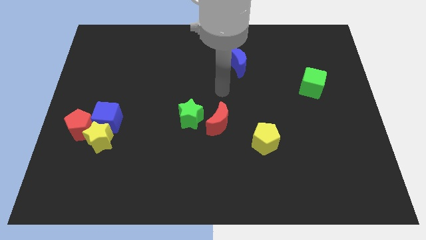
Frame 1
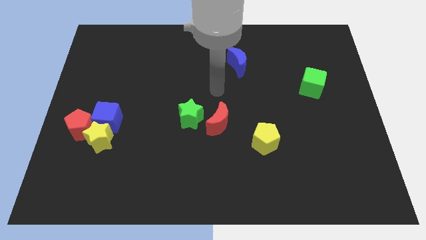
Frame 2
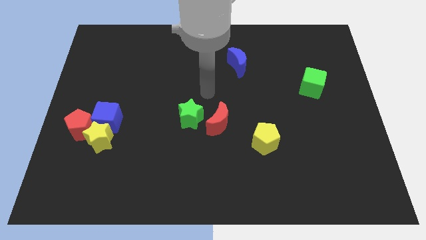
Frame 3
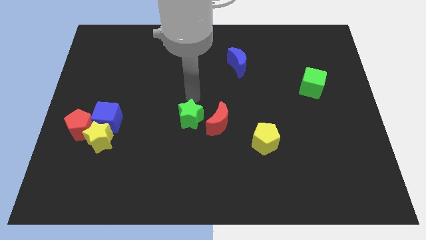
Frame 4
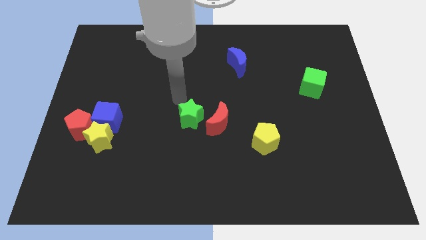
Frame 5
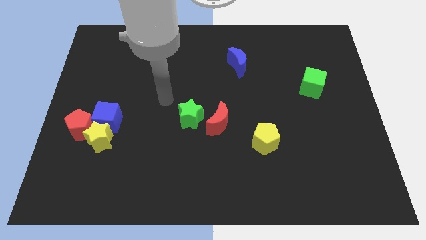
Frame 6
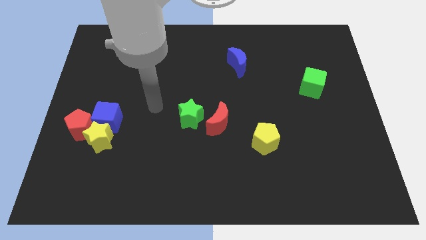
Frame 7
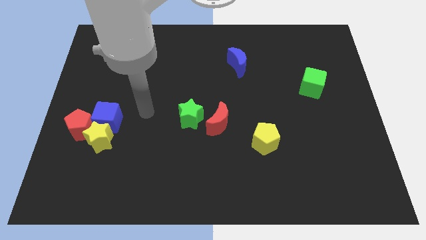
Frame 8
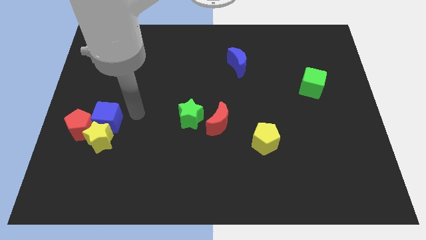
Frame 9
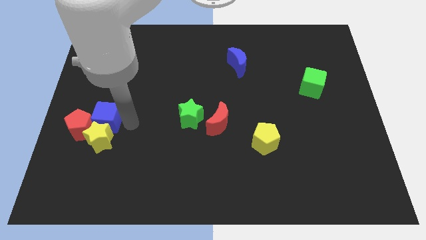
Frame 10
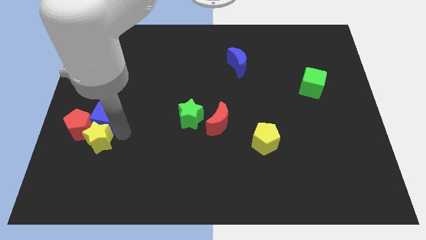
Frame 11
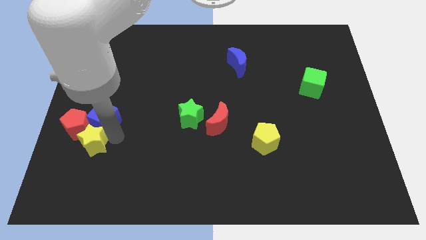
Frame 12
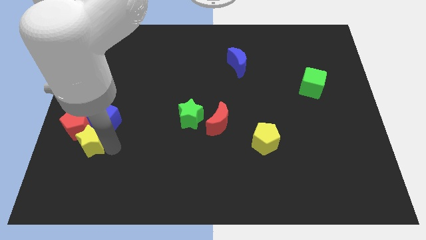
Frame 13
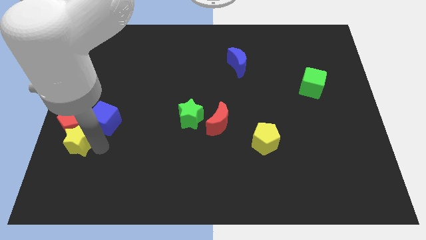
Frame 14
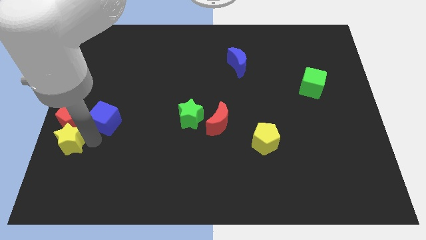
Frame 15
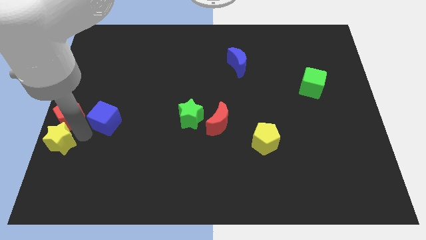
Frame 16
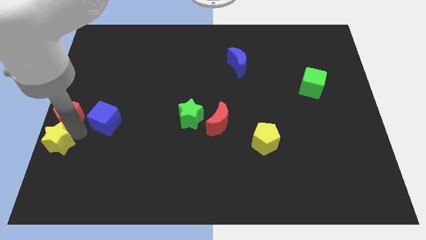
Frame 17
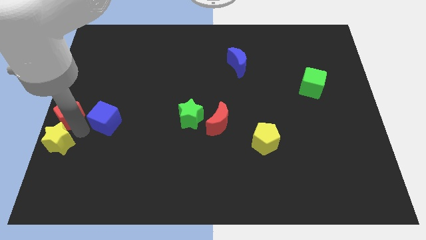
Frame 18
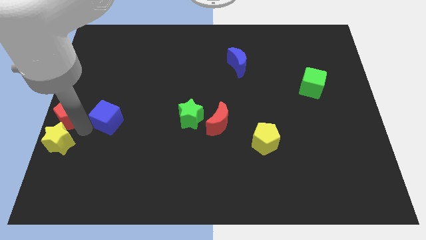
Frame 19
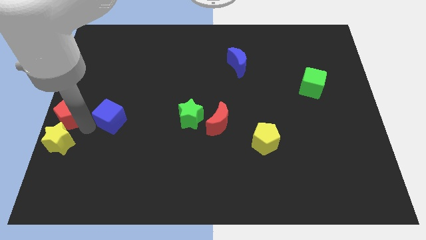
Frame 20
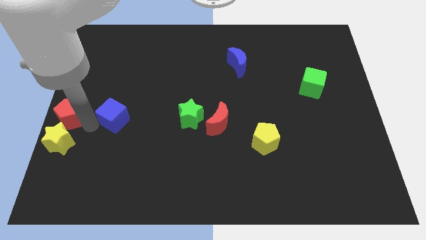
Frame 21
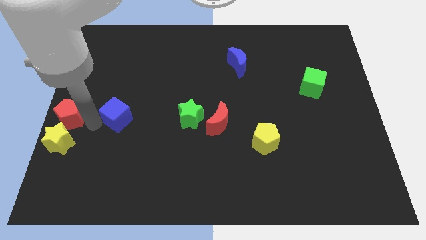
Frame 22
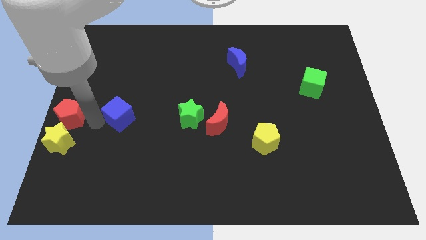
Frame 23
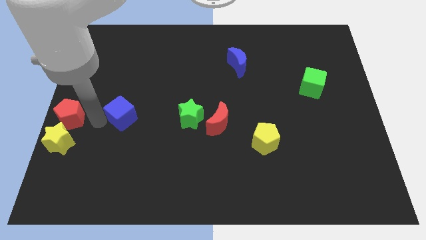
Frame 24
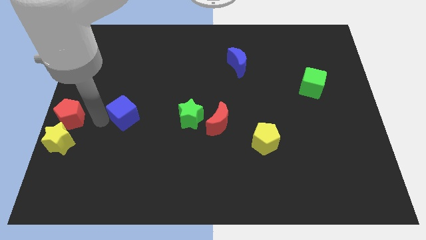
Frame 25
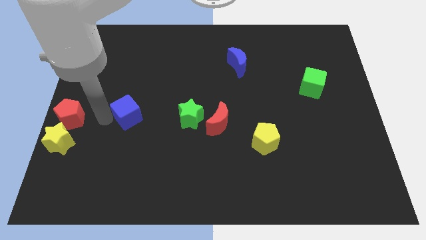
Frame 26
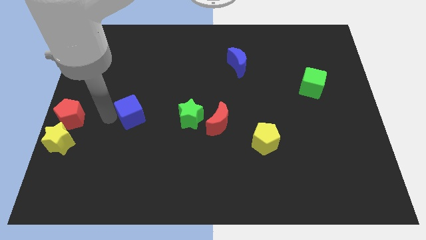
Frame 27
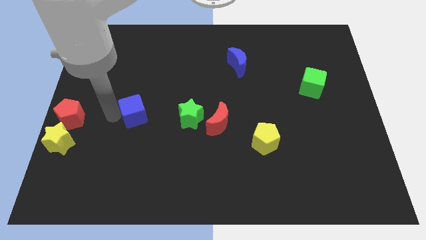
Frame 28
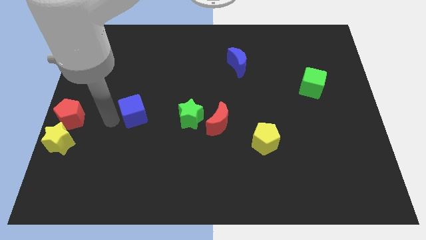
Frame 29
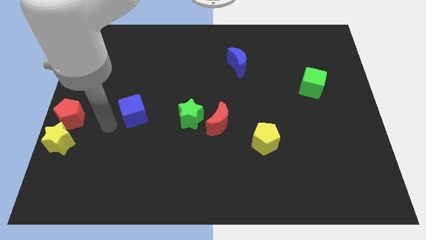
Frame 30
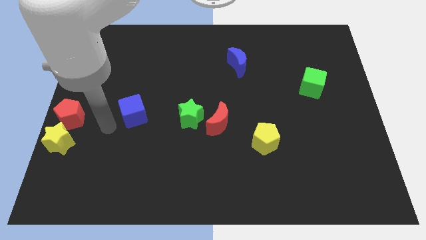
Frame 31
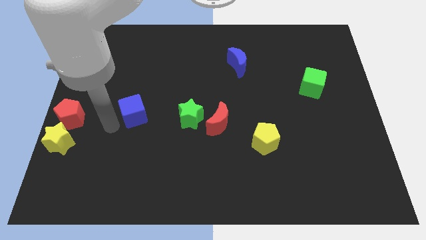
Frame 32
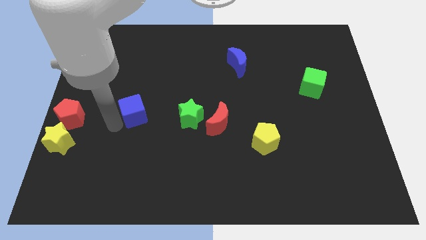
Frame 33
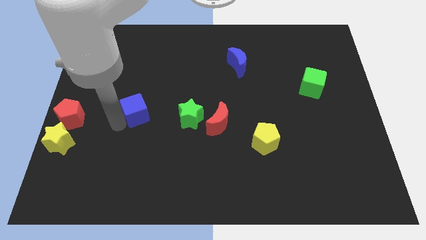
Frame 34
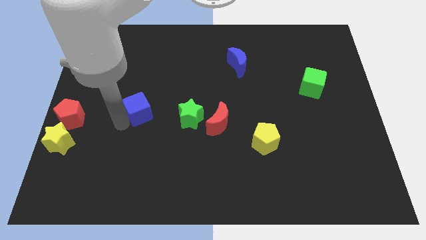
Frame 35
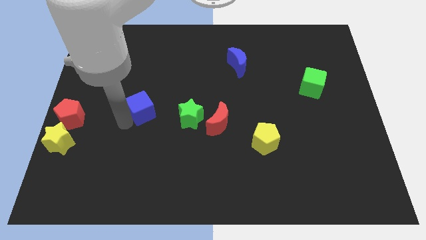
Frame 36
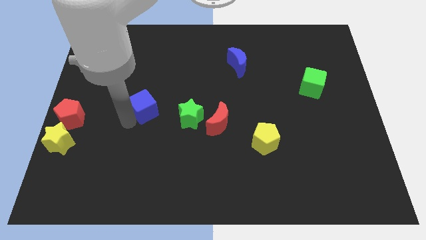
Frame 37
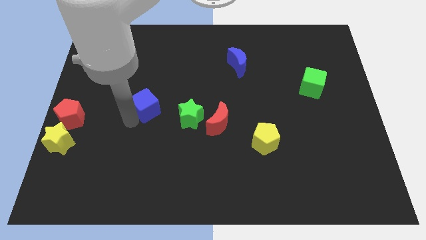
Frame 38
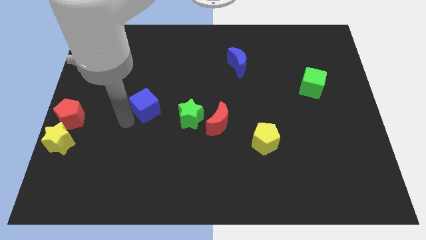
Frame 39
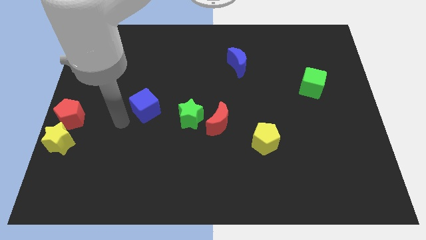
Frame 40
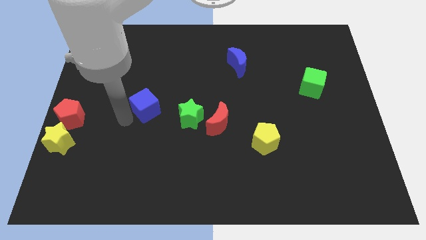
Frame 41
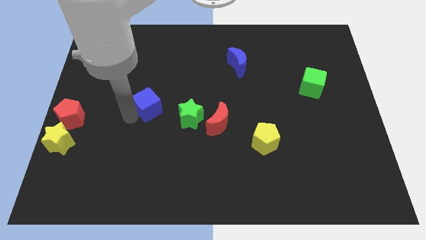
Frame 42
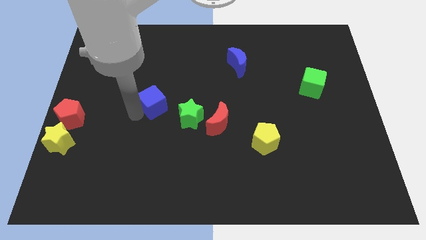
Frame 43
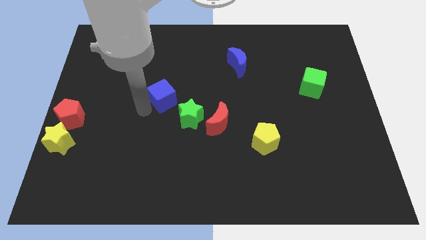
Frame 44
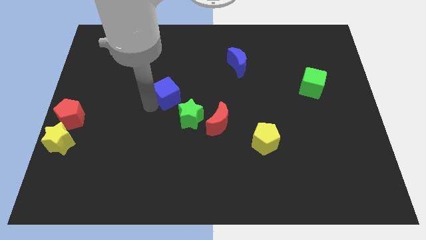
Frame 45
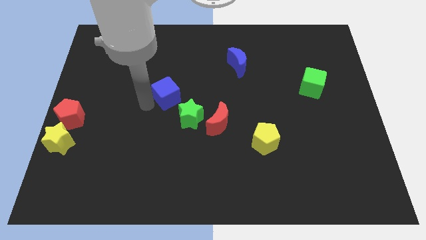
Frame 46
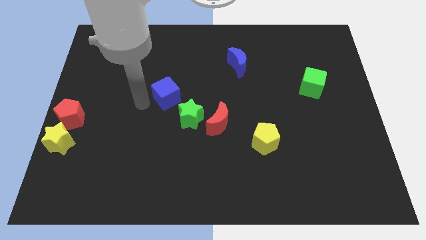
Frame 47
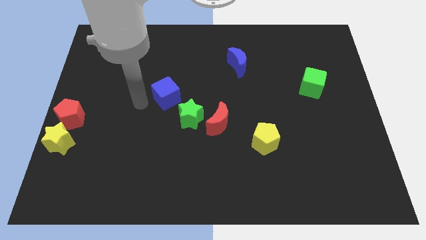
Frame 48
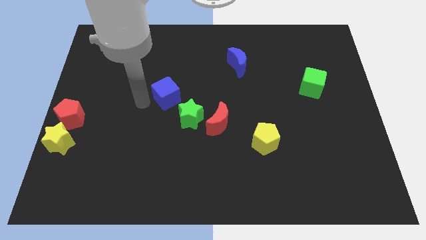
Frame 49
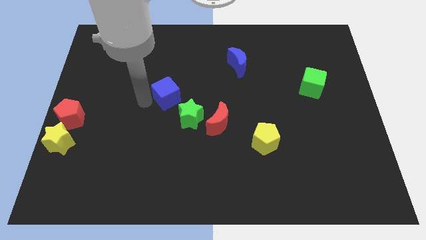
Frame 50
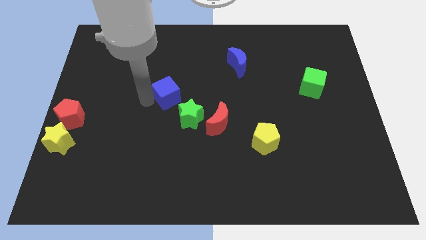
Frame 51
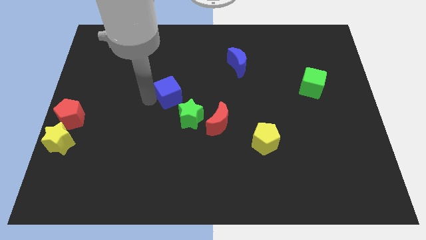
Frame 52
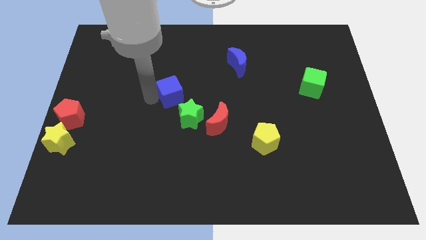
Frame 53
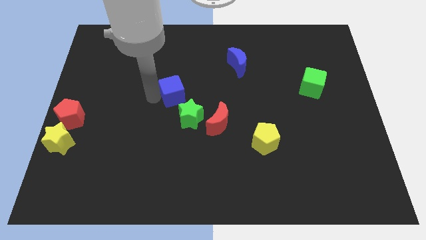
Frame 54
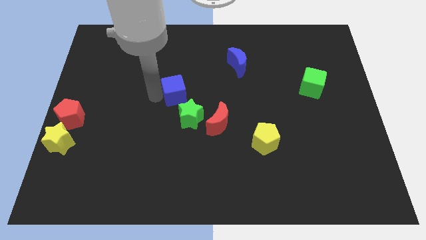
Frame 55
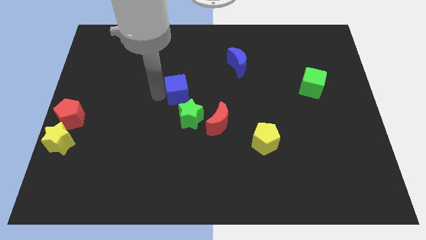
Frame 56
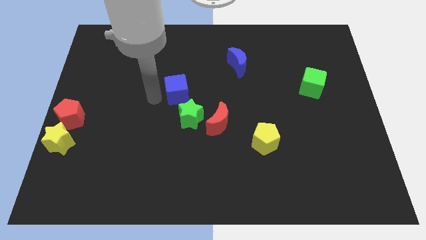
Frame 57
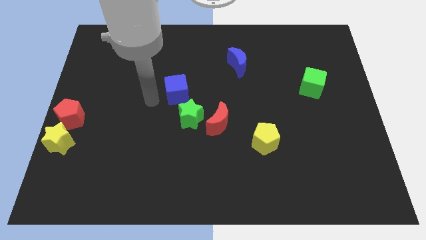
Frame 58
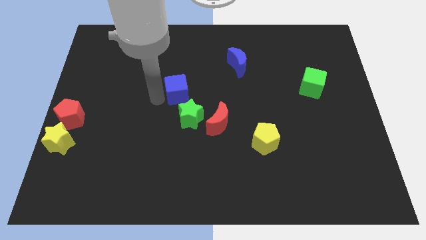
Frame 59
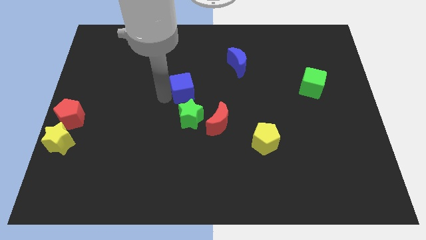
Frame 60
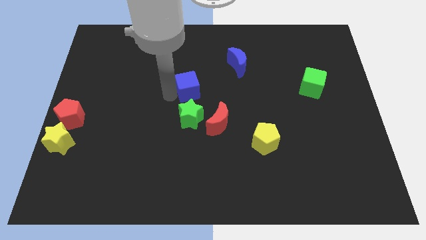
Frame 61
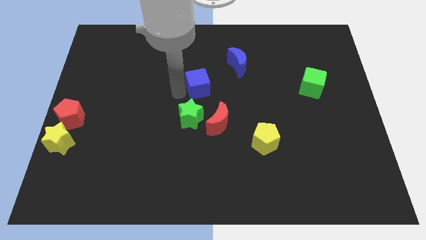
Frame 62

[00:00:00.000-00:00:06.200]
put the blue cube to the bottom left side of the blue moon

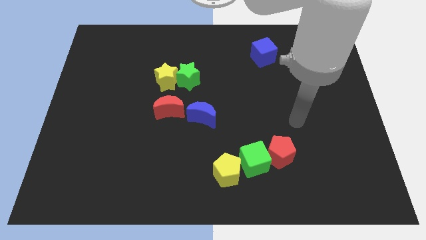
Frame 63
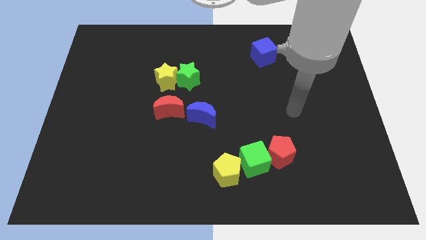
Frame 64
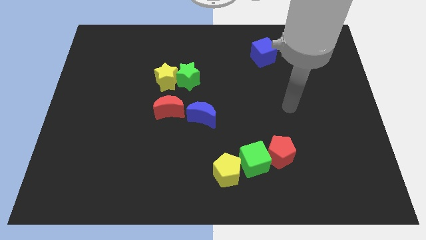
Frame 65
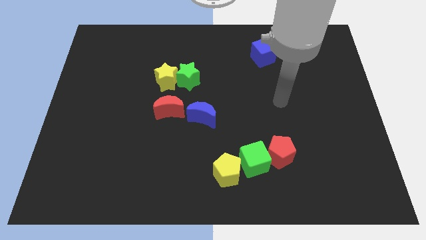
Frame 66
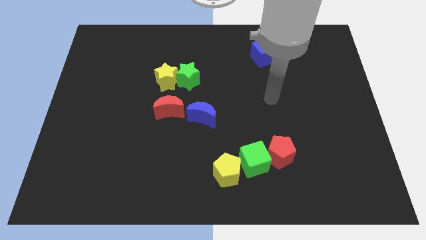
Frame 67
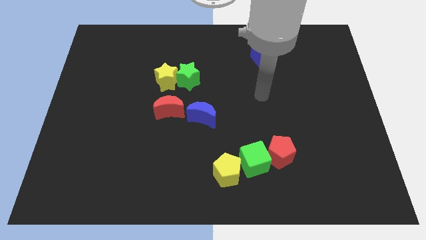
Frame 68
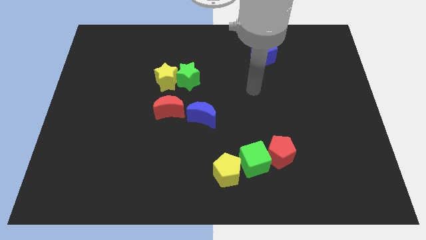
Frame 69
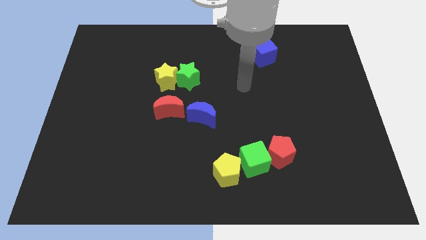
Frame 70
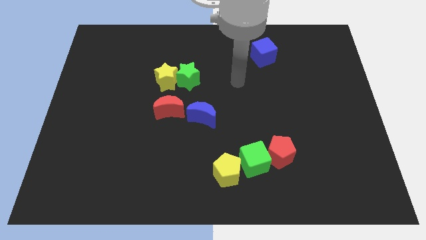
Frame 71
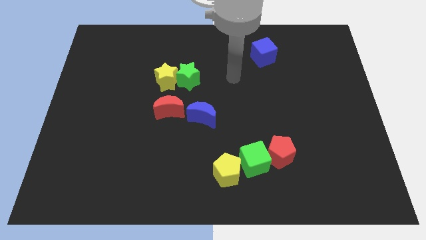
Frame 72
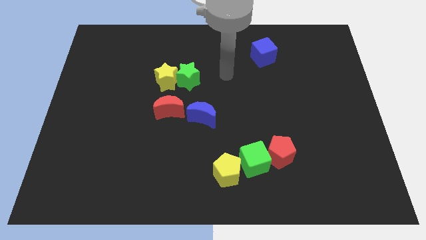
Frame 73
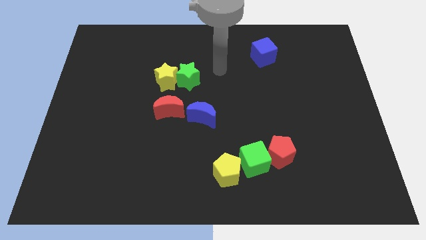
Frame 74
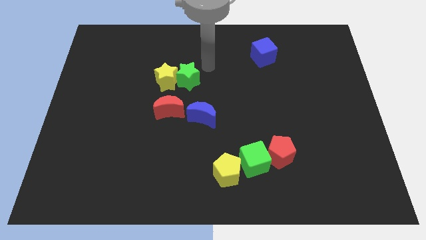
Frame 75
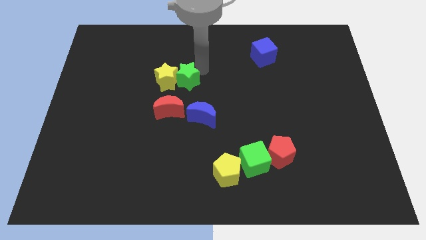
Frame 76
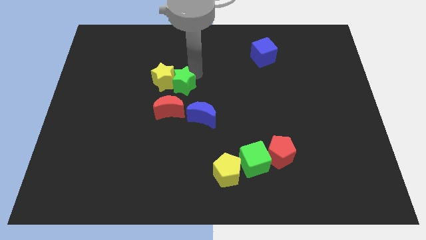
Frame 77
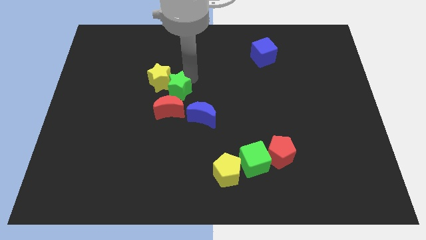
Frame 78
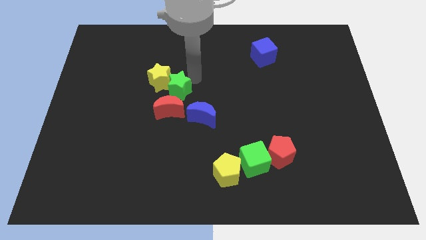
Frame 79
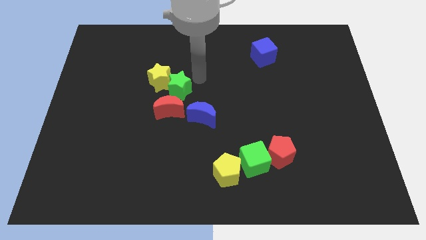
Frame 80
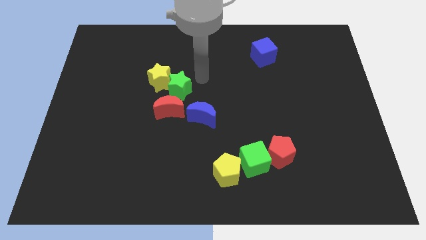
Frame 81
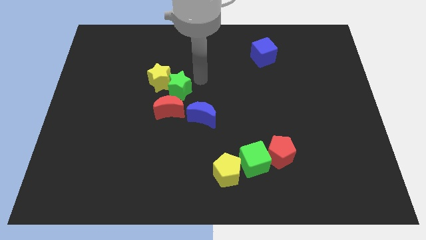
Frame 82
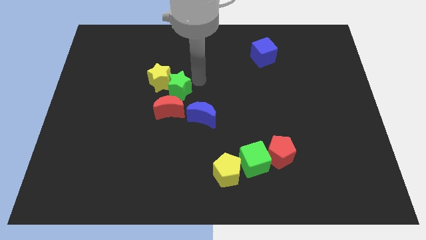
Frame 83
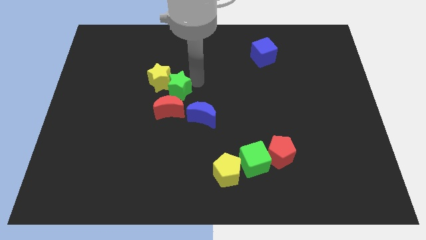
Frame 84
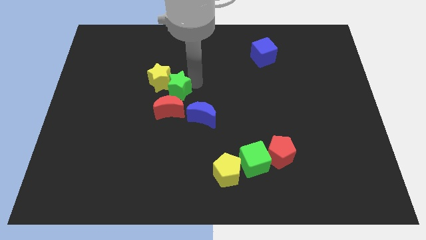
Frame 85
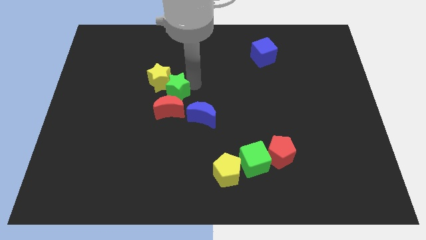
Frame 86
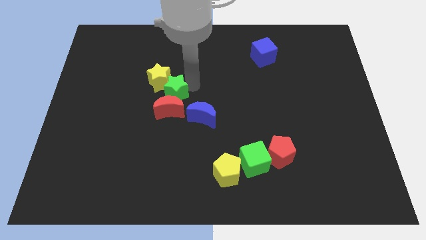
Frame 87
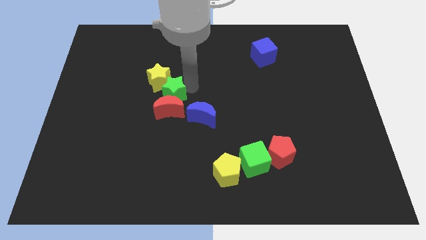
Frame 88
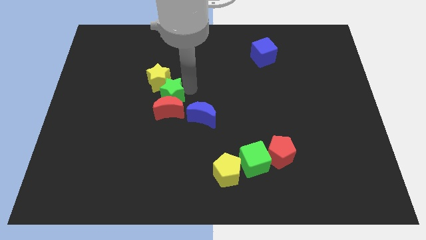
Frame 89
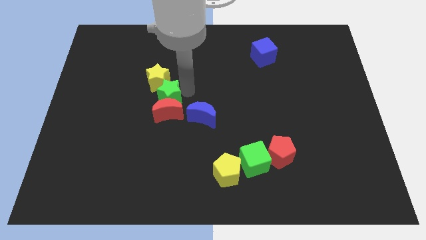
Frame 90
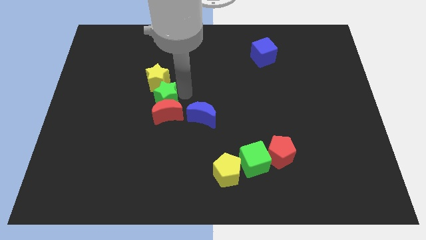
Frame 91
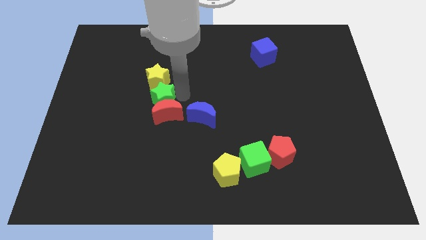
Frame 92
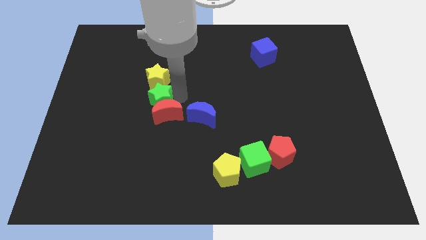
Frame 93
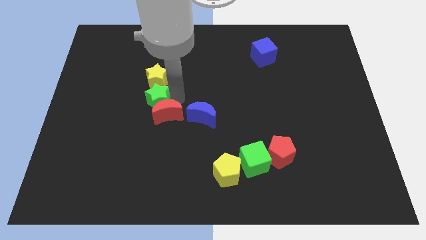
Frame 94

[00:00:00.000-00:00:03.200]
push the green star left of the red moon
